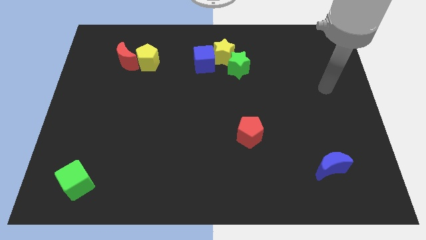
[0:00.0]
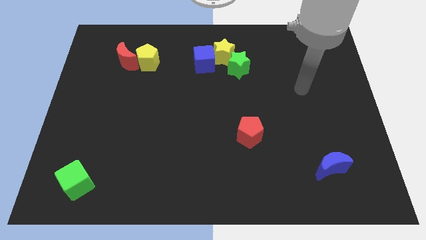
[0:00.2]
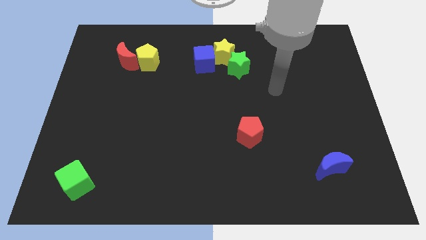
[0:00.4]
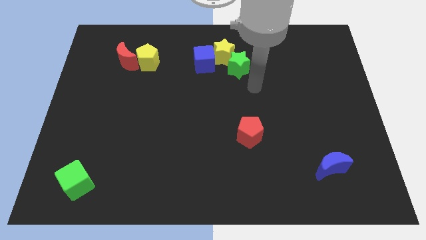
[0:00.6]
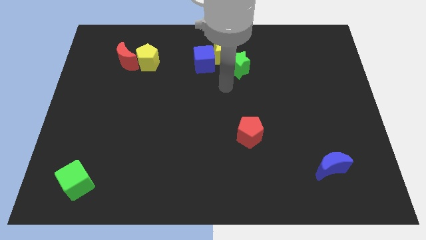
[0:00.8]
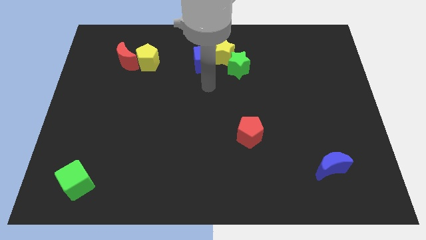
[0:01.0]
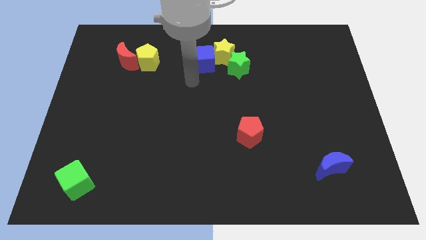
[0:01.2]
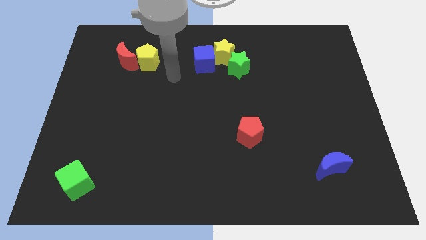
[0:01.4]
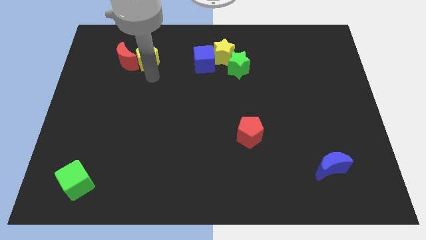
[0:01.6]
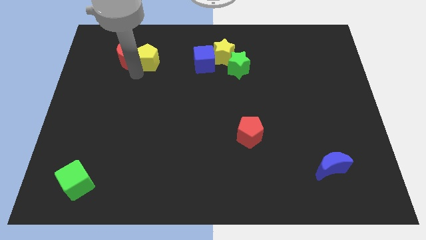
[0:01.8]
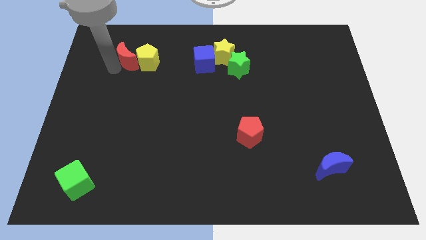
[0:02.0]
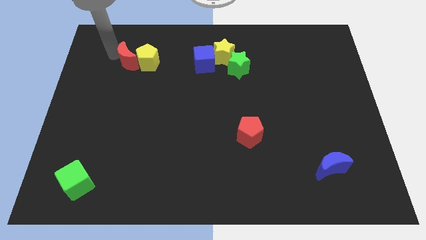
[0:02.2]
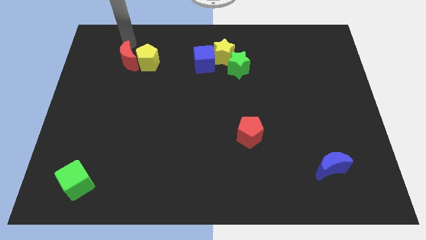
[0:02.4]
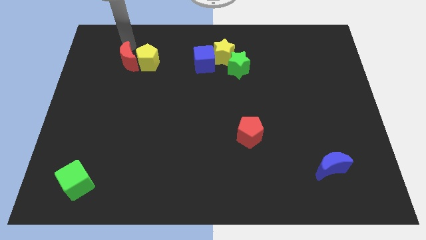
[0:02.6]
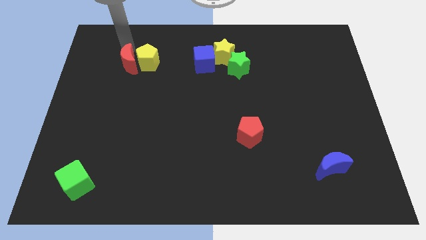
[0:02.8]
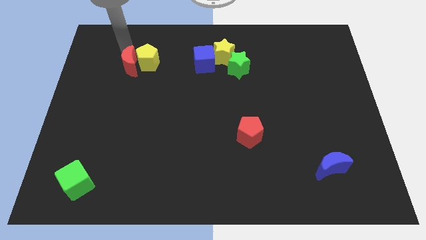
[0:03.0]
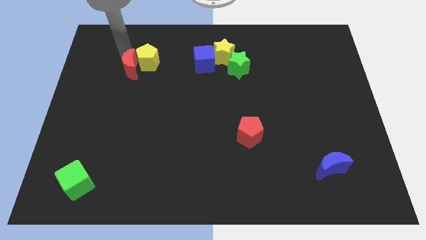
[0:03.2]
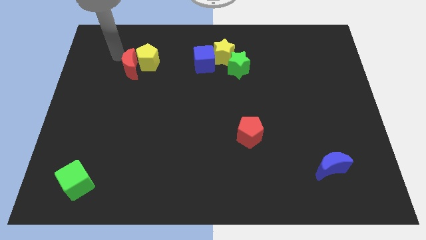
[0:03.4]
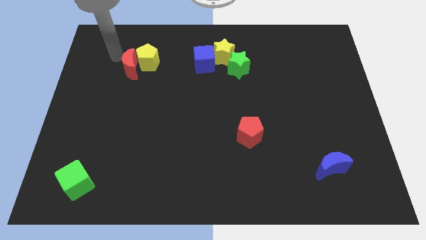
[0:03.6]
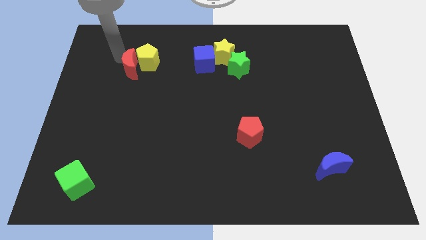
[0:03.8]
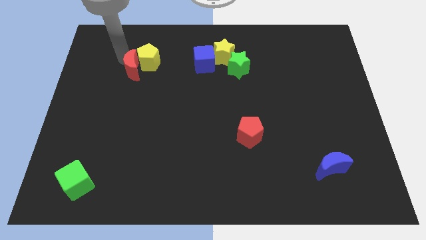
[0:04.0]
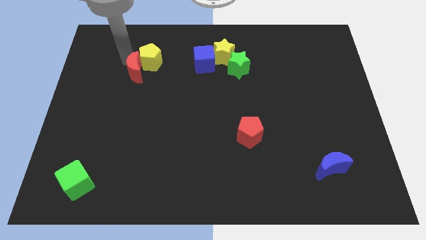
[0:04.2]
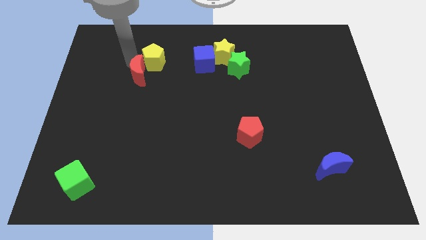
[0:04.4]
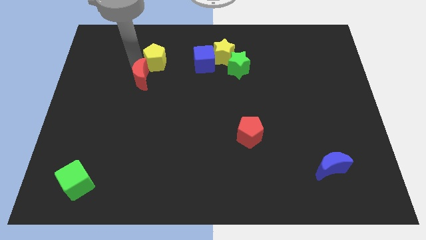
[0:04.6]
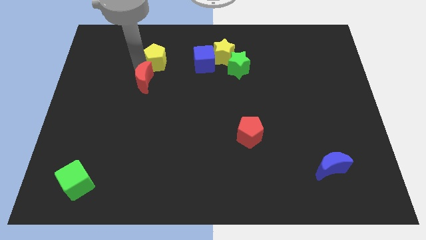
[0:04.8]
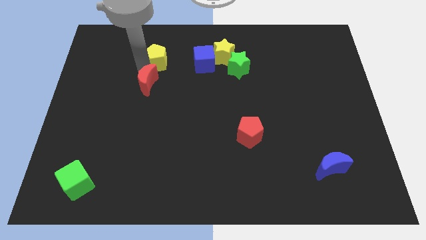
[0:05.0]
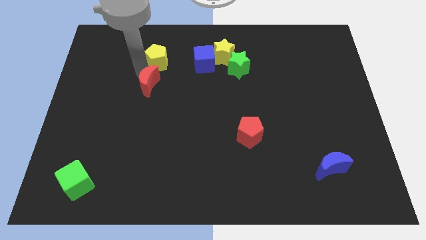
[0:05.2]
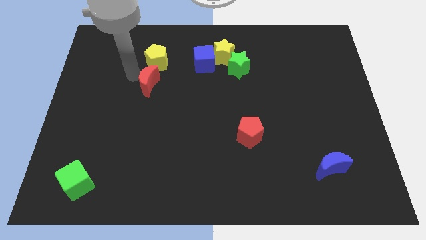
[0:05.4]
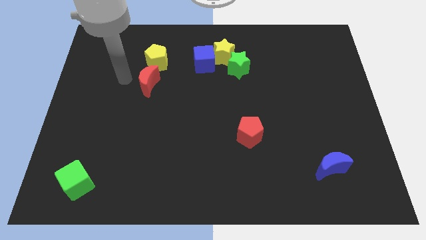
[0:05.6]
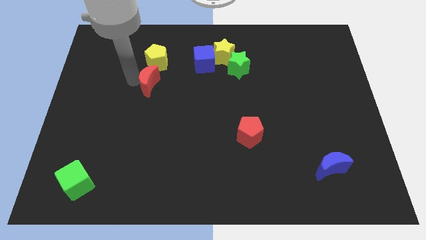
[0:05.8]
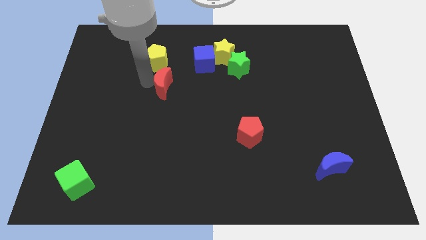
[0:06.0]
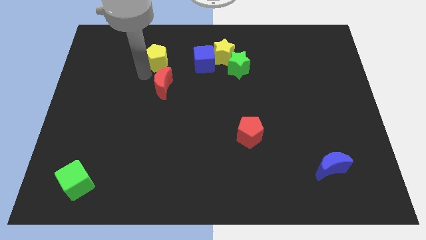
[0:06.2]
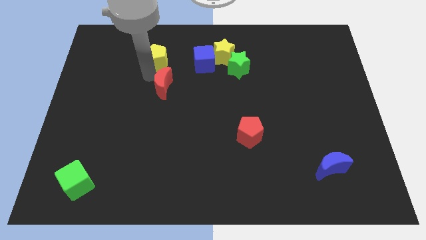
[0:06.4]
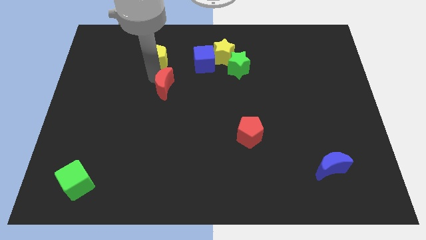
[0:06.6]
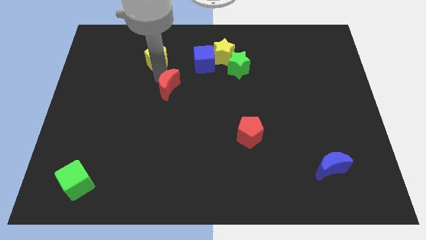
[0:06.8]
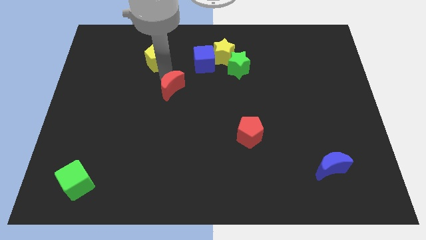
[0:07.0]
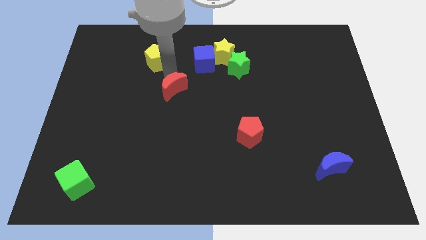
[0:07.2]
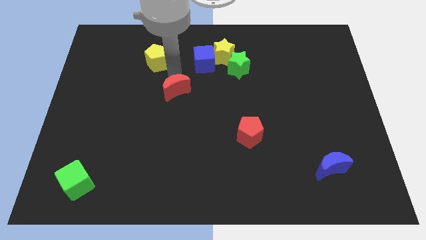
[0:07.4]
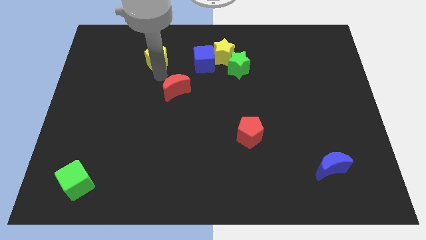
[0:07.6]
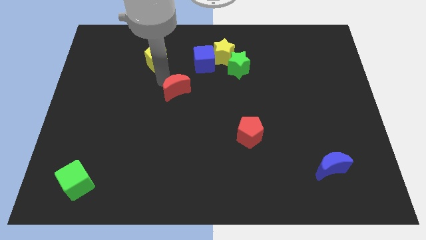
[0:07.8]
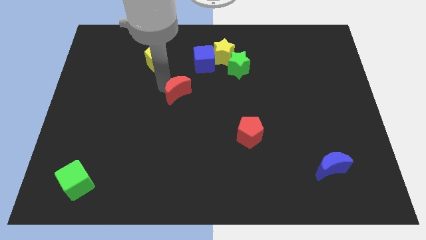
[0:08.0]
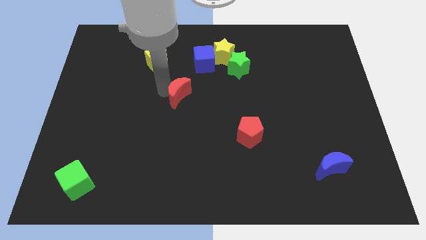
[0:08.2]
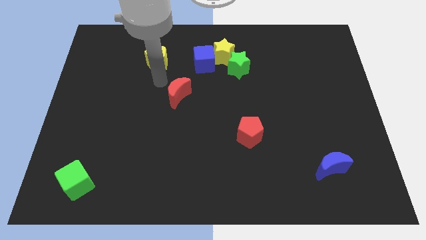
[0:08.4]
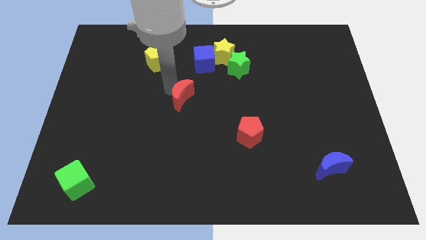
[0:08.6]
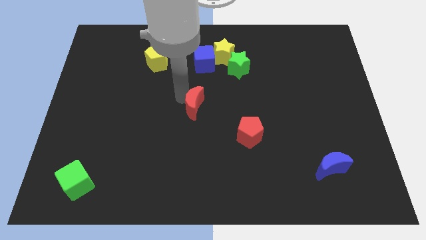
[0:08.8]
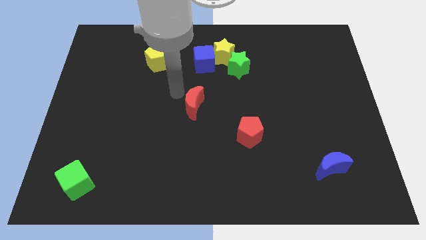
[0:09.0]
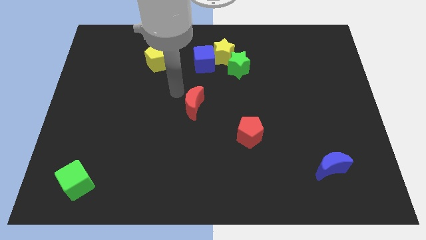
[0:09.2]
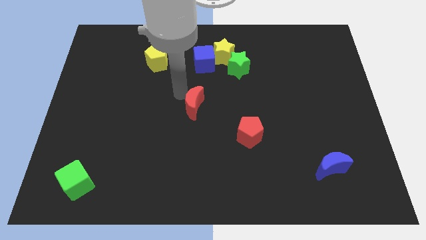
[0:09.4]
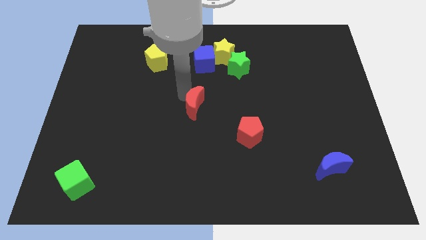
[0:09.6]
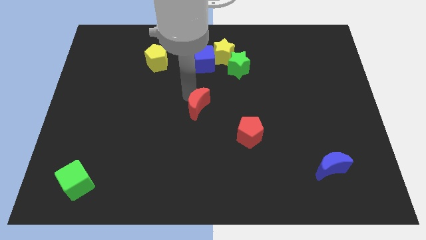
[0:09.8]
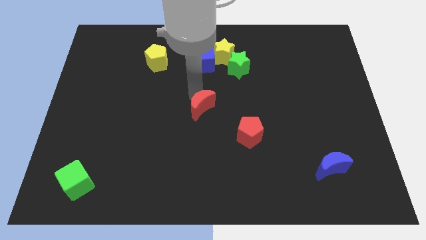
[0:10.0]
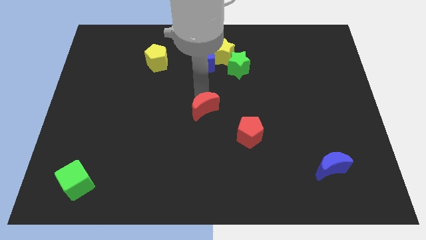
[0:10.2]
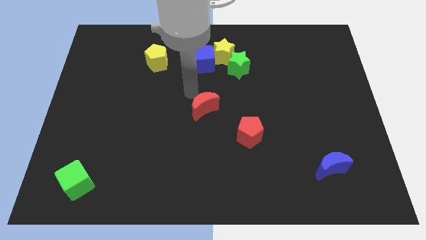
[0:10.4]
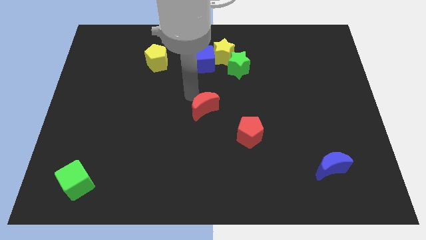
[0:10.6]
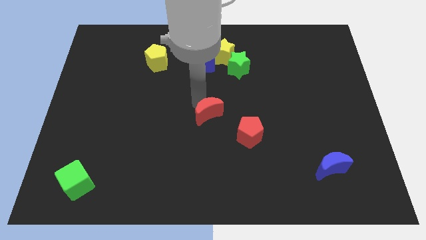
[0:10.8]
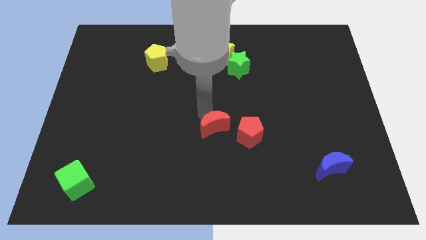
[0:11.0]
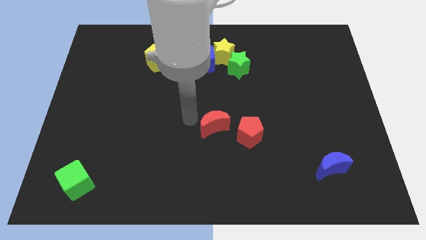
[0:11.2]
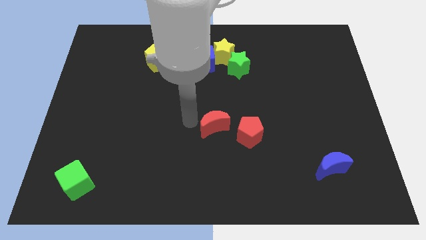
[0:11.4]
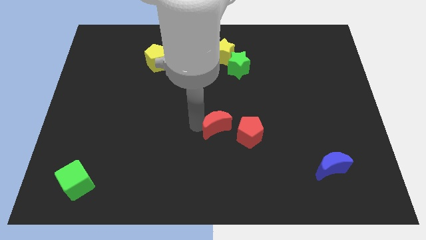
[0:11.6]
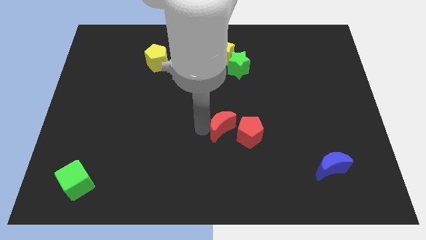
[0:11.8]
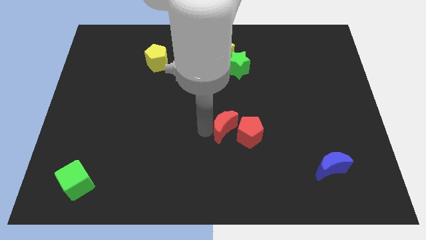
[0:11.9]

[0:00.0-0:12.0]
push the red moon to the red pentagon

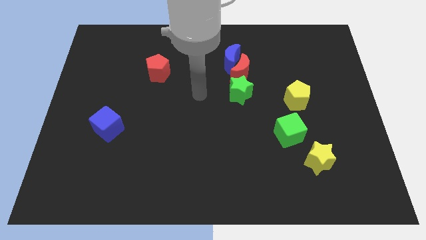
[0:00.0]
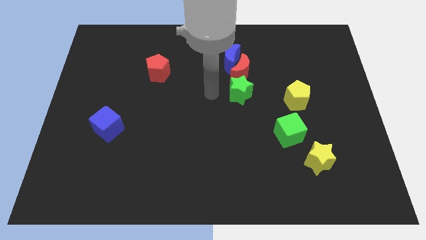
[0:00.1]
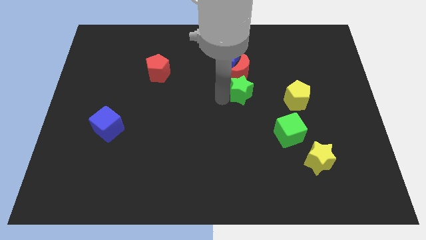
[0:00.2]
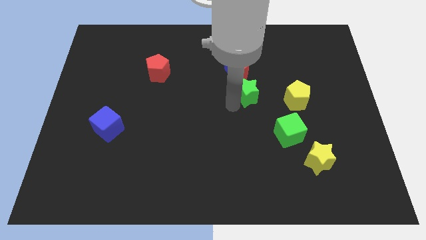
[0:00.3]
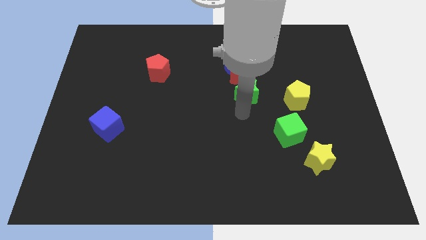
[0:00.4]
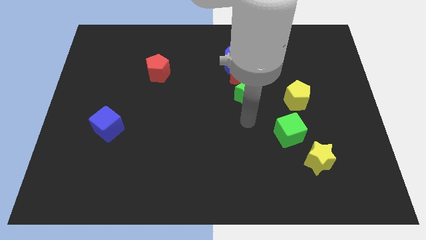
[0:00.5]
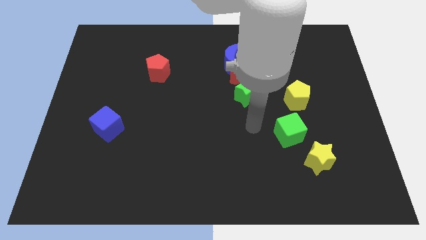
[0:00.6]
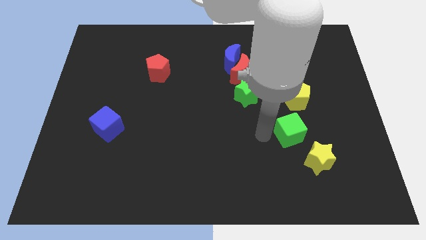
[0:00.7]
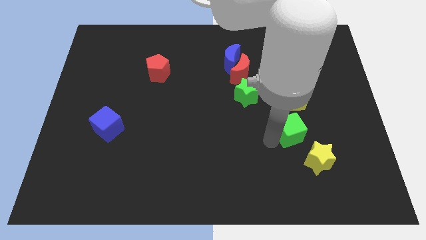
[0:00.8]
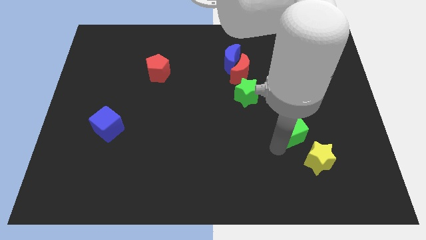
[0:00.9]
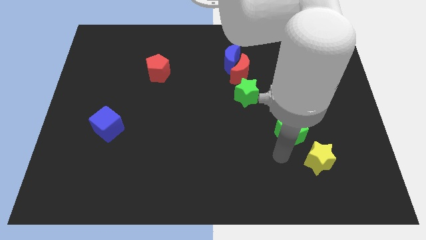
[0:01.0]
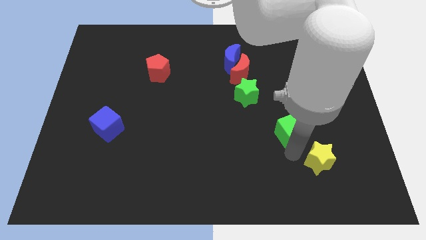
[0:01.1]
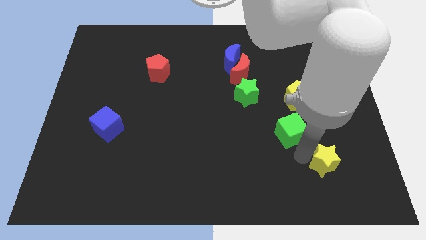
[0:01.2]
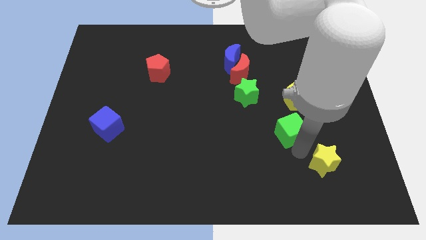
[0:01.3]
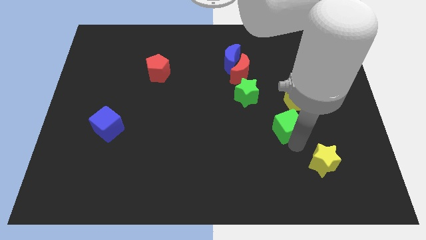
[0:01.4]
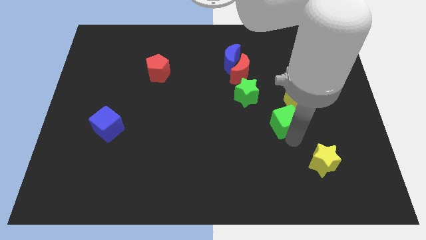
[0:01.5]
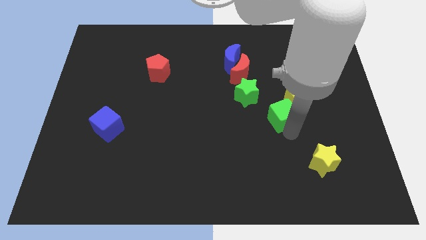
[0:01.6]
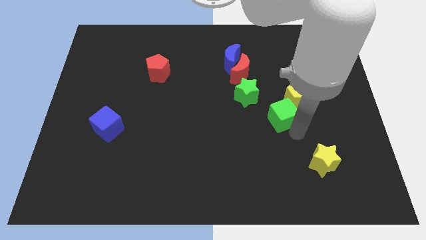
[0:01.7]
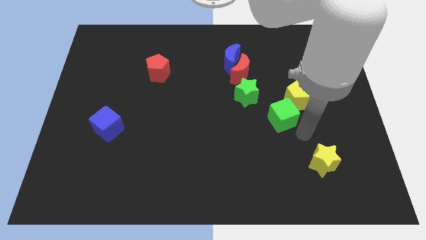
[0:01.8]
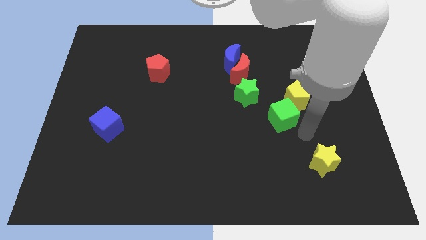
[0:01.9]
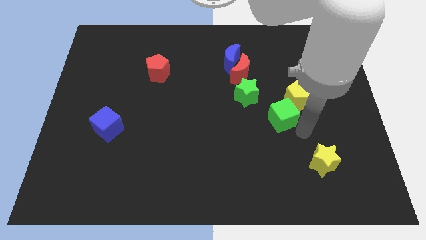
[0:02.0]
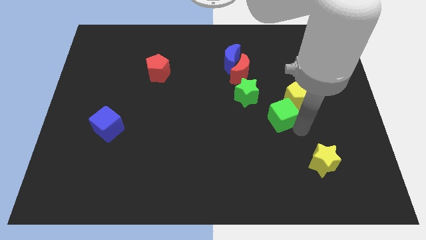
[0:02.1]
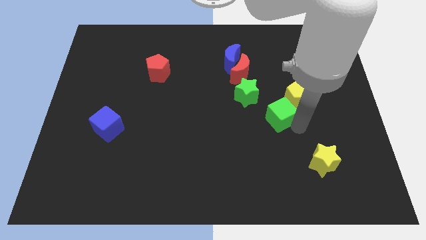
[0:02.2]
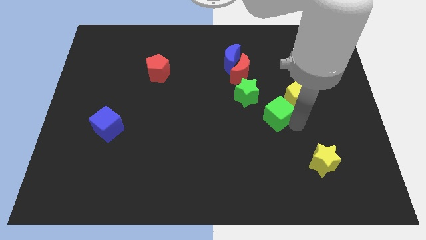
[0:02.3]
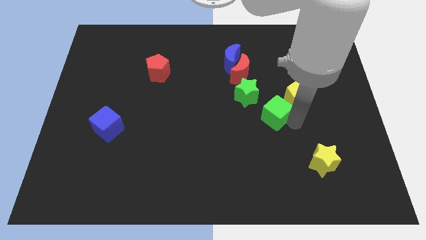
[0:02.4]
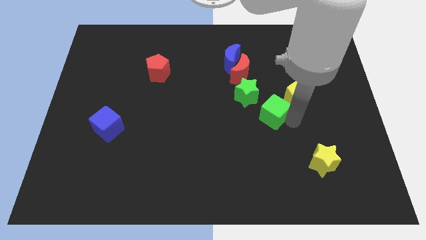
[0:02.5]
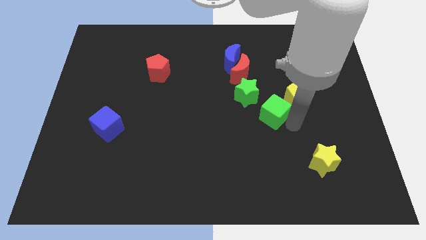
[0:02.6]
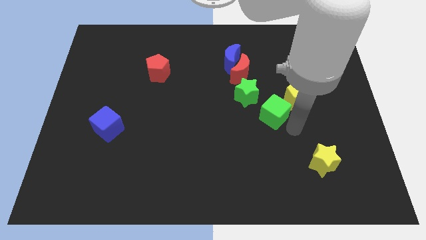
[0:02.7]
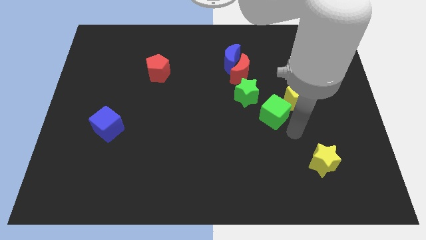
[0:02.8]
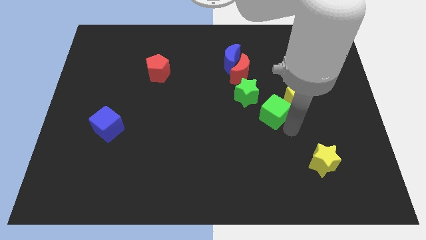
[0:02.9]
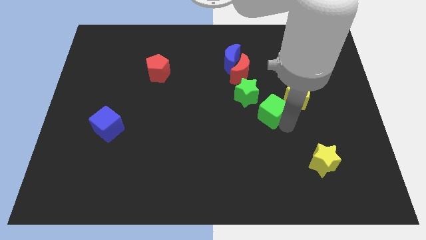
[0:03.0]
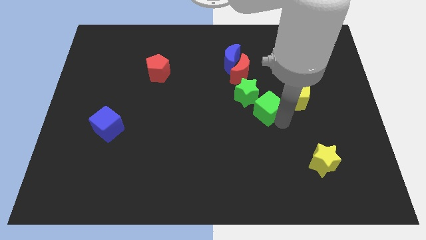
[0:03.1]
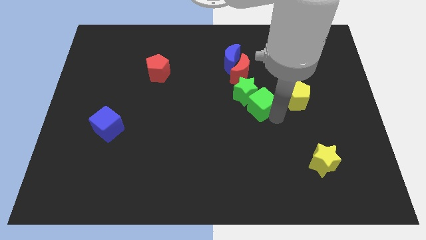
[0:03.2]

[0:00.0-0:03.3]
slide the green cube next to the green star
